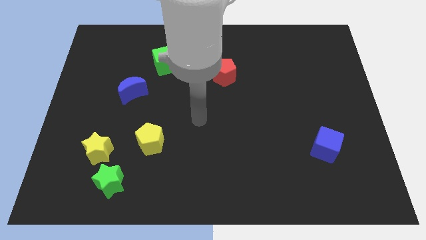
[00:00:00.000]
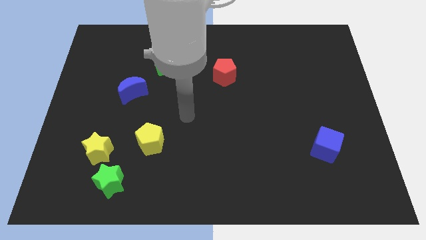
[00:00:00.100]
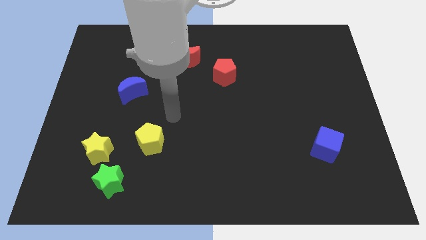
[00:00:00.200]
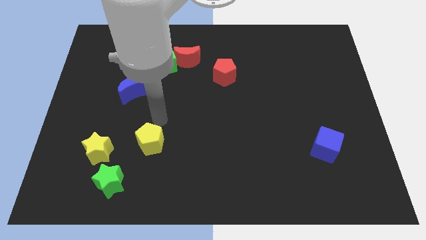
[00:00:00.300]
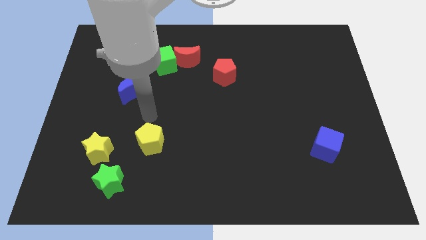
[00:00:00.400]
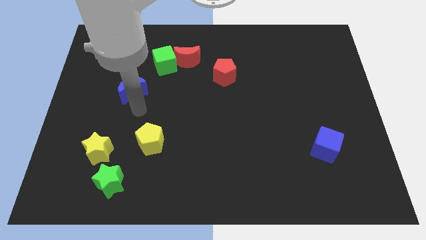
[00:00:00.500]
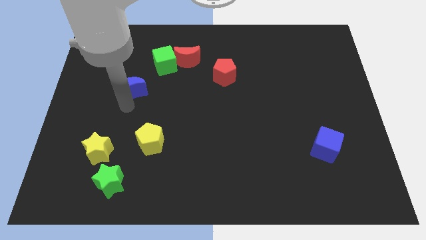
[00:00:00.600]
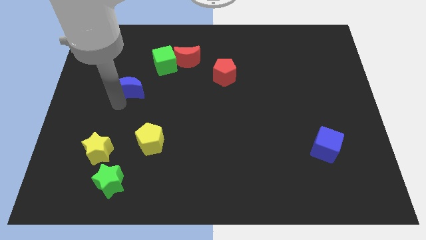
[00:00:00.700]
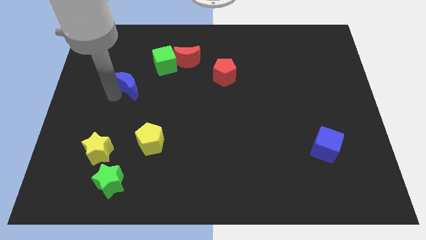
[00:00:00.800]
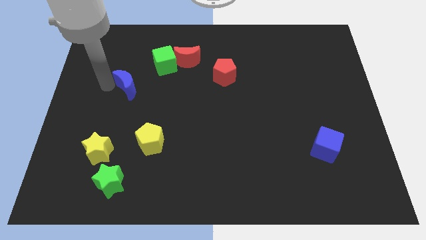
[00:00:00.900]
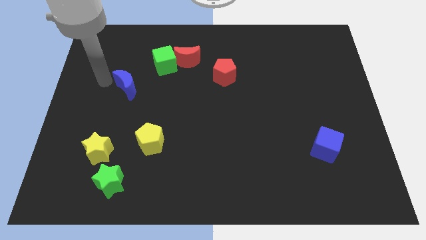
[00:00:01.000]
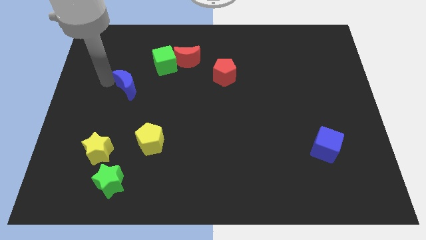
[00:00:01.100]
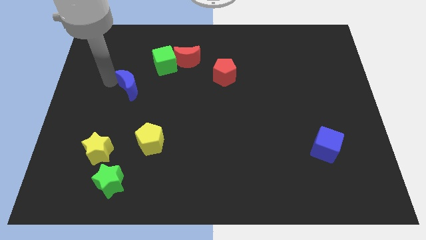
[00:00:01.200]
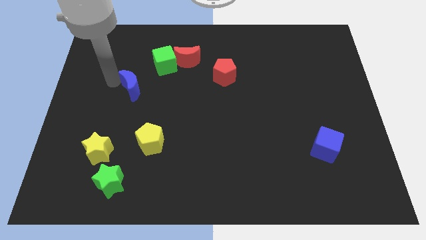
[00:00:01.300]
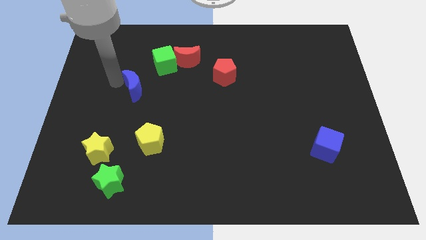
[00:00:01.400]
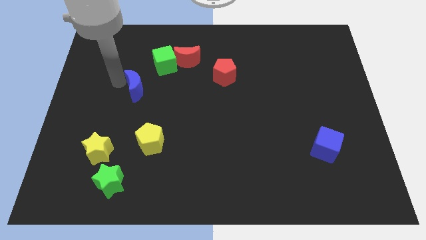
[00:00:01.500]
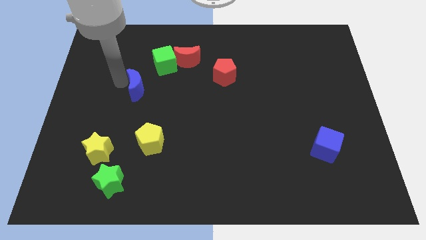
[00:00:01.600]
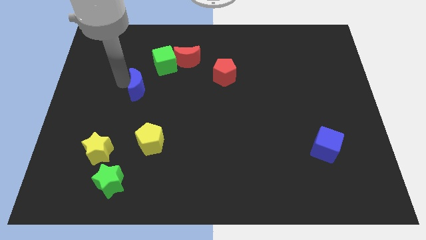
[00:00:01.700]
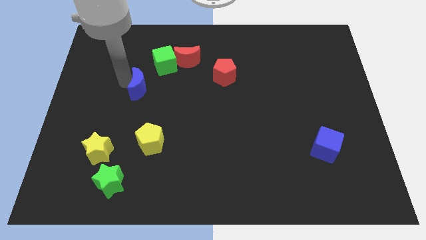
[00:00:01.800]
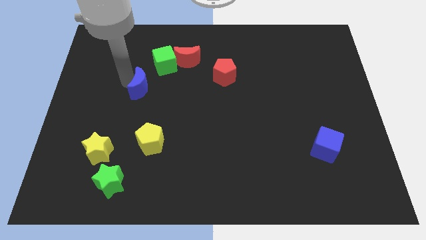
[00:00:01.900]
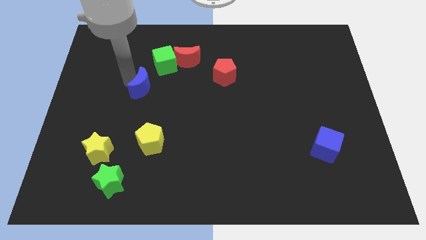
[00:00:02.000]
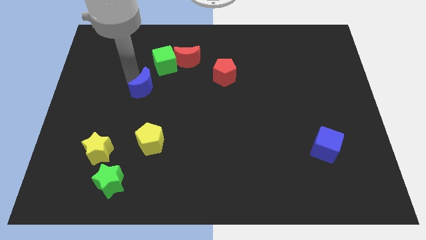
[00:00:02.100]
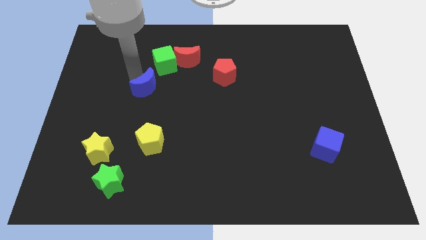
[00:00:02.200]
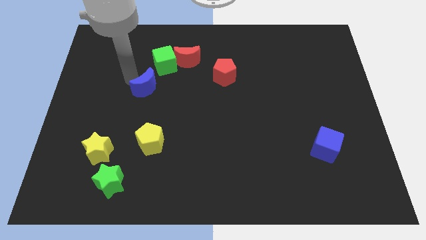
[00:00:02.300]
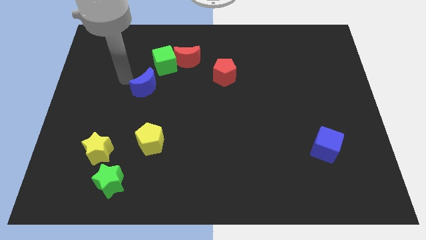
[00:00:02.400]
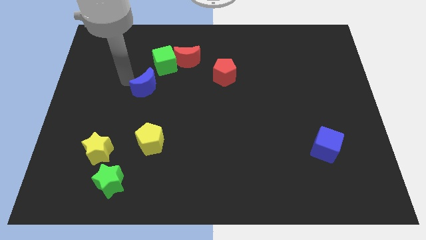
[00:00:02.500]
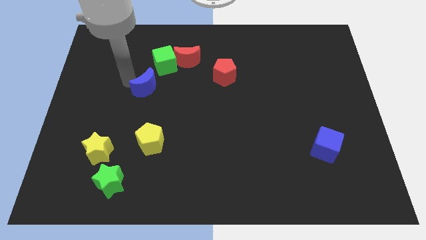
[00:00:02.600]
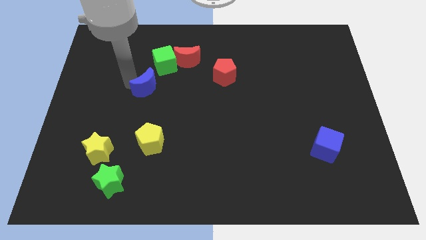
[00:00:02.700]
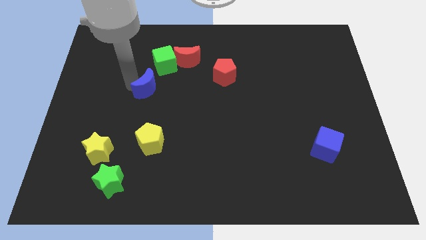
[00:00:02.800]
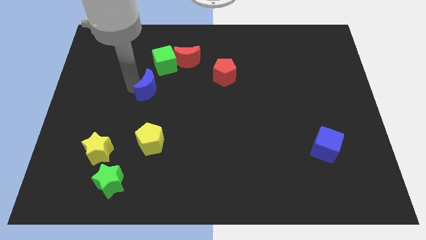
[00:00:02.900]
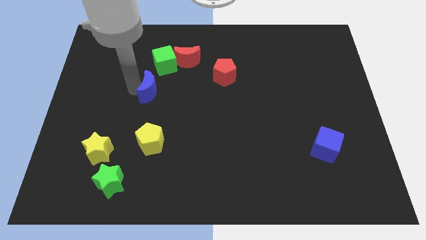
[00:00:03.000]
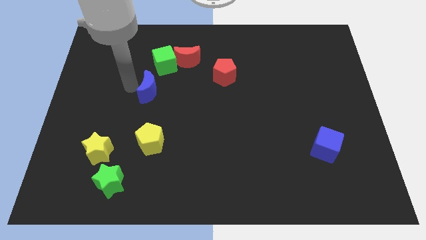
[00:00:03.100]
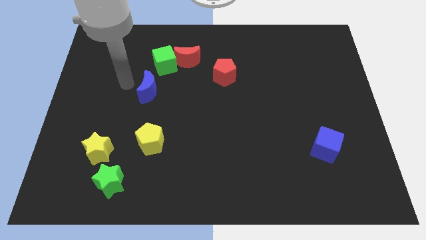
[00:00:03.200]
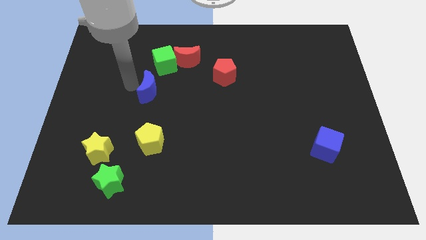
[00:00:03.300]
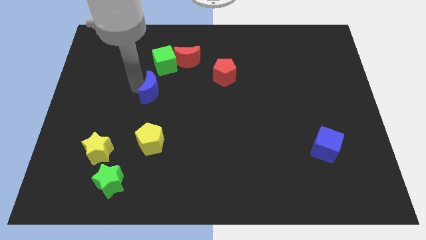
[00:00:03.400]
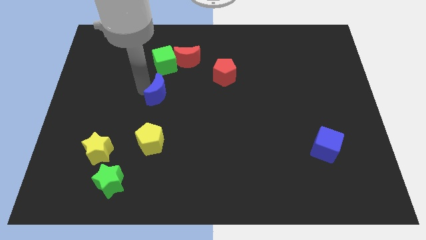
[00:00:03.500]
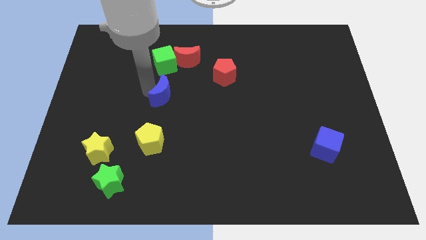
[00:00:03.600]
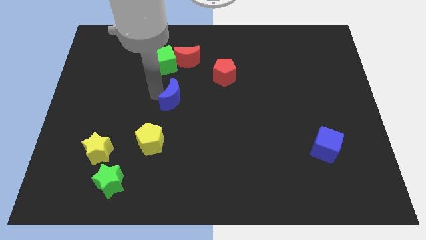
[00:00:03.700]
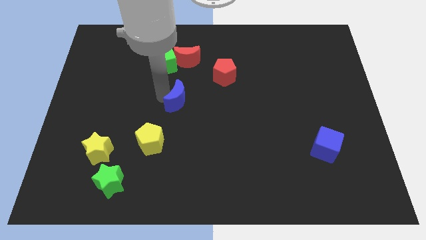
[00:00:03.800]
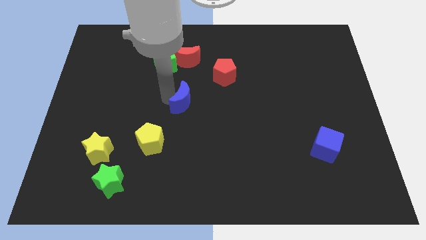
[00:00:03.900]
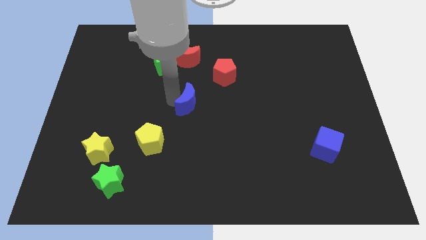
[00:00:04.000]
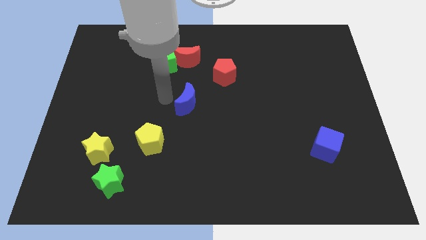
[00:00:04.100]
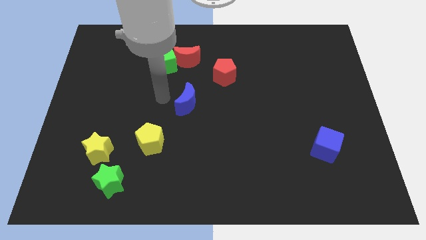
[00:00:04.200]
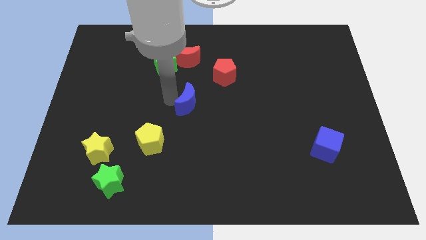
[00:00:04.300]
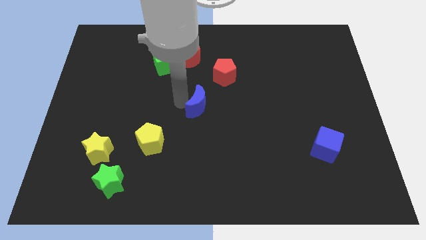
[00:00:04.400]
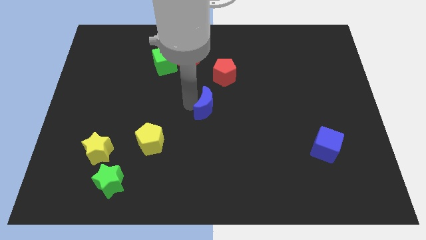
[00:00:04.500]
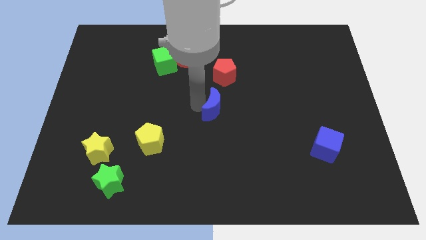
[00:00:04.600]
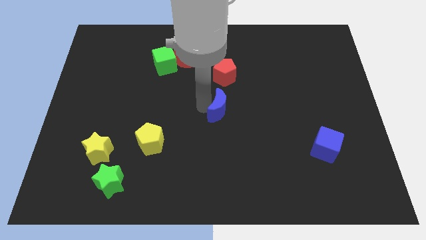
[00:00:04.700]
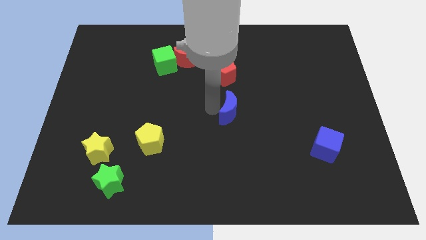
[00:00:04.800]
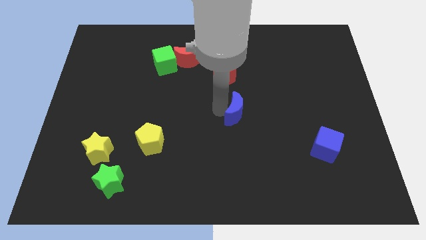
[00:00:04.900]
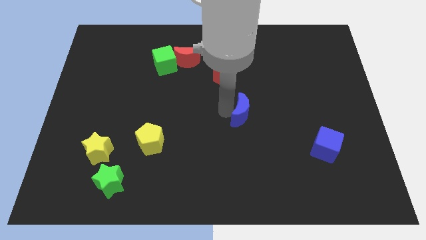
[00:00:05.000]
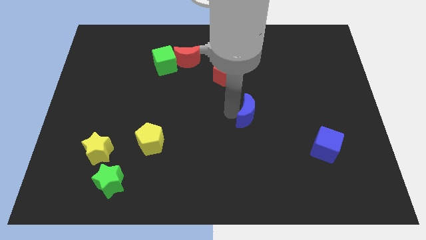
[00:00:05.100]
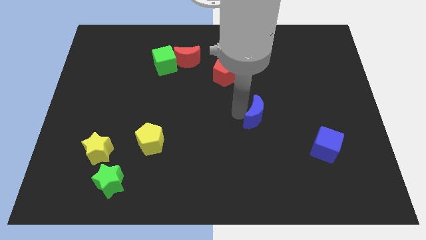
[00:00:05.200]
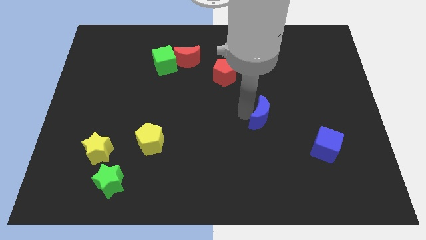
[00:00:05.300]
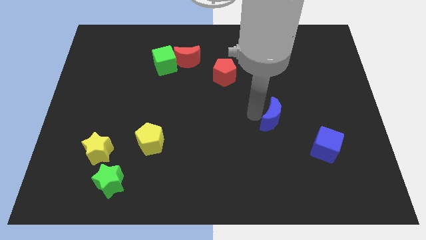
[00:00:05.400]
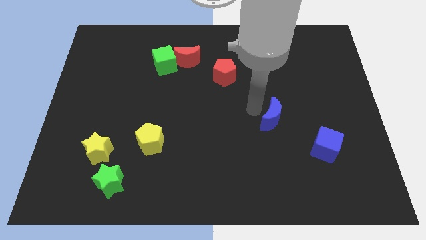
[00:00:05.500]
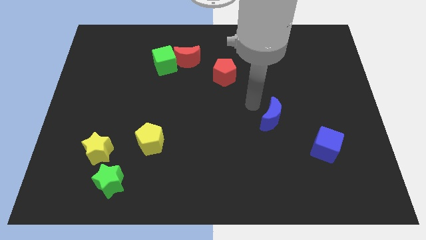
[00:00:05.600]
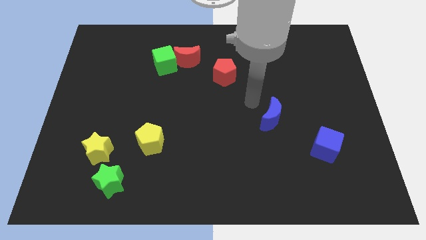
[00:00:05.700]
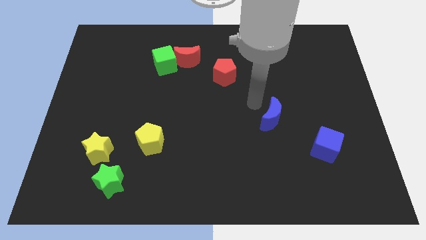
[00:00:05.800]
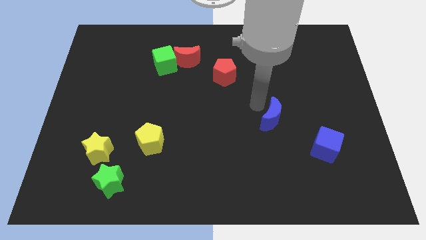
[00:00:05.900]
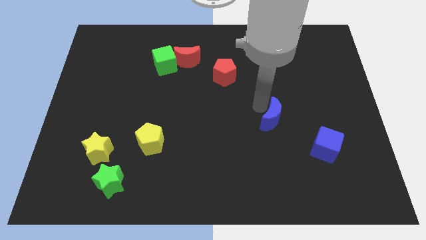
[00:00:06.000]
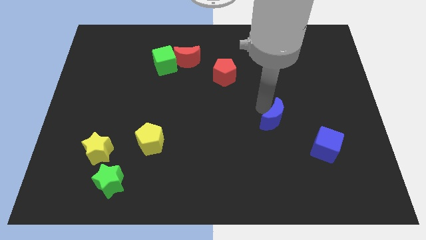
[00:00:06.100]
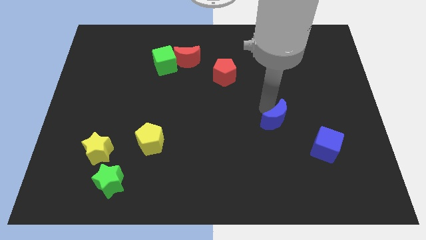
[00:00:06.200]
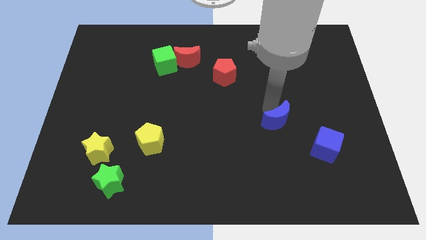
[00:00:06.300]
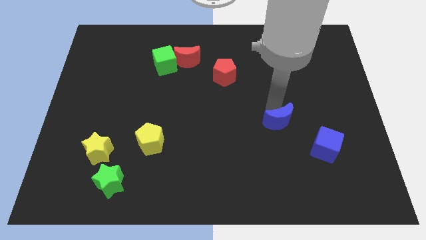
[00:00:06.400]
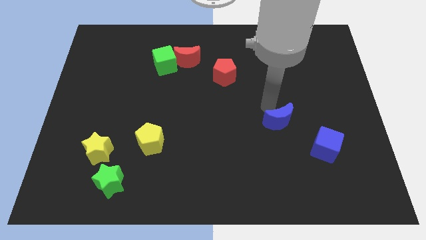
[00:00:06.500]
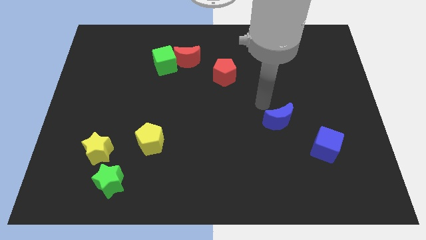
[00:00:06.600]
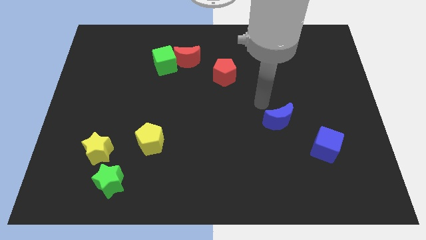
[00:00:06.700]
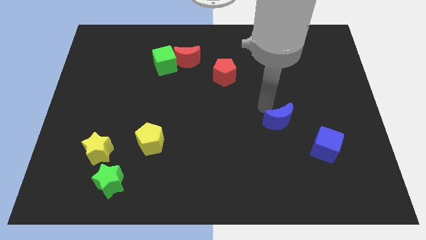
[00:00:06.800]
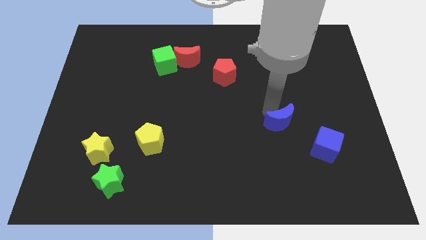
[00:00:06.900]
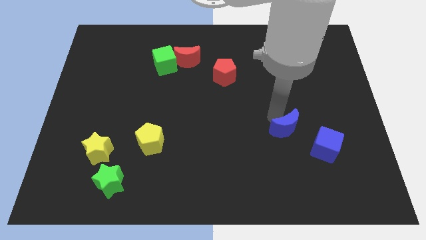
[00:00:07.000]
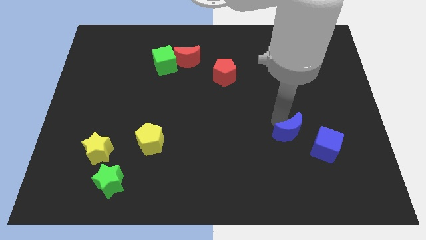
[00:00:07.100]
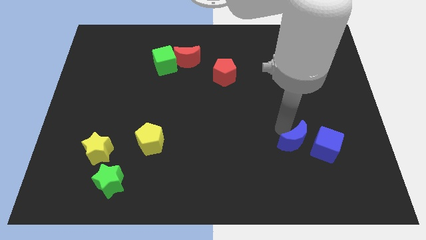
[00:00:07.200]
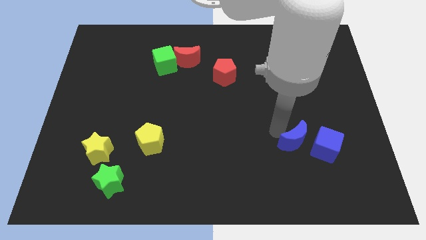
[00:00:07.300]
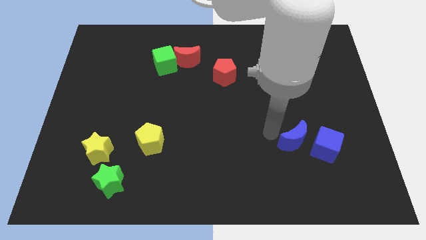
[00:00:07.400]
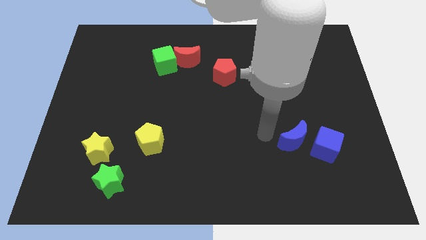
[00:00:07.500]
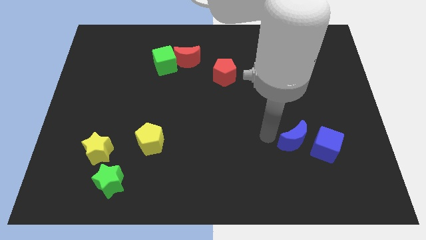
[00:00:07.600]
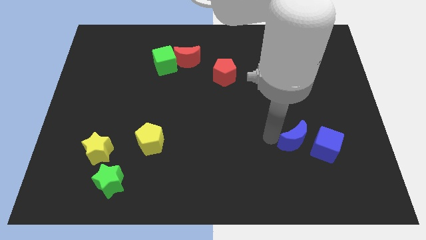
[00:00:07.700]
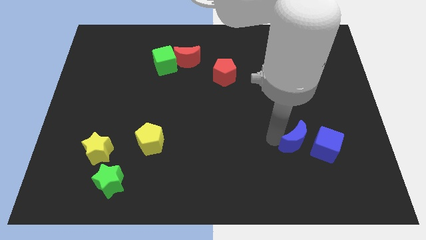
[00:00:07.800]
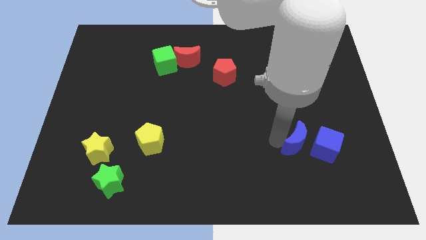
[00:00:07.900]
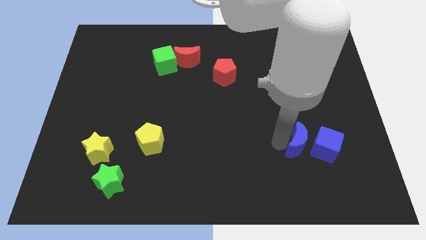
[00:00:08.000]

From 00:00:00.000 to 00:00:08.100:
put the blue moon close to the blue cube
